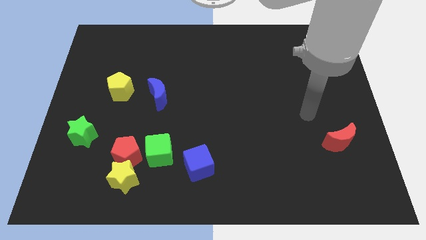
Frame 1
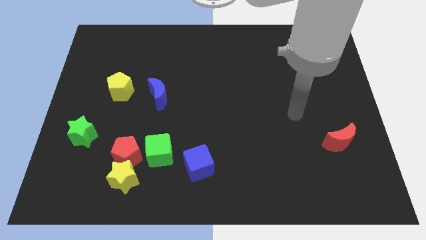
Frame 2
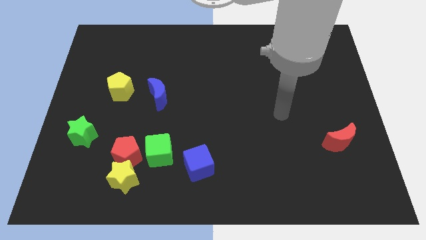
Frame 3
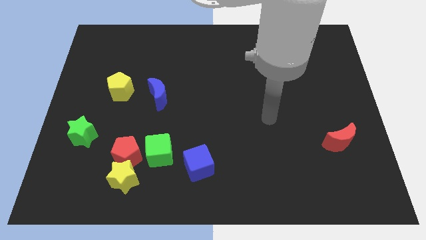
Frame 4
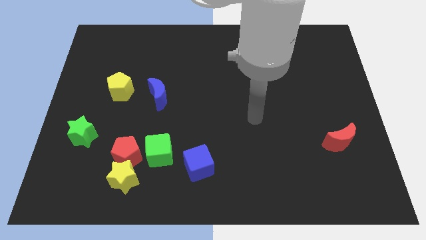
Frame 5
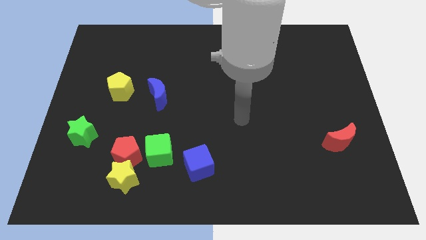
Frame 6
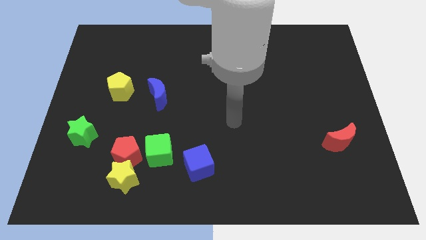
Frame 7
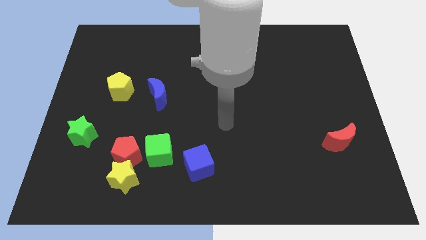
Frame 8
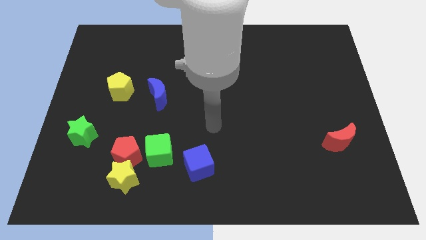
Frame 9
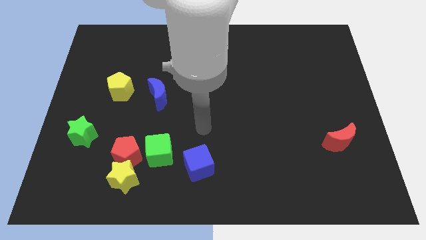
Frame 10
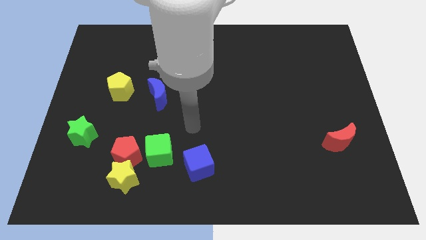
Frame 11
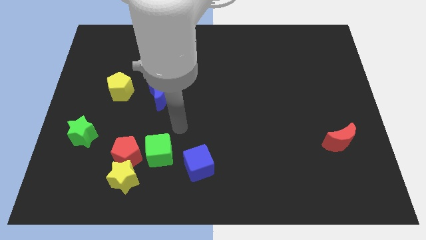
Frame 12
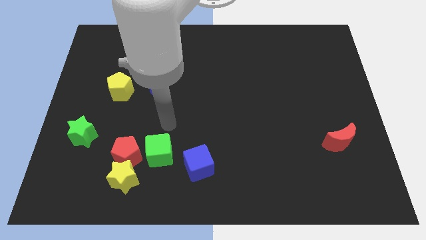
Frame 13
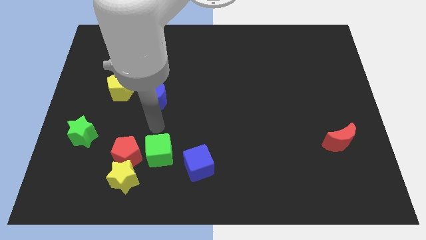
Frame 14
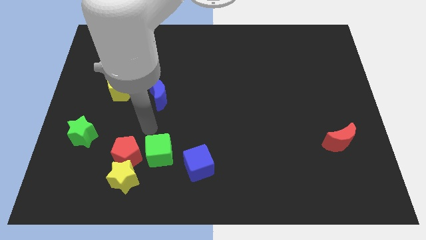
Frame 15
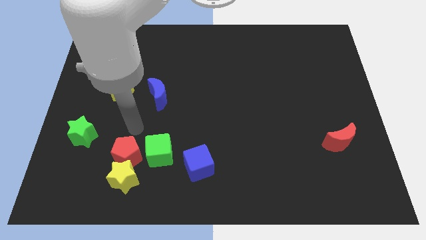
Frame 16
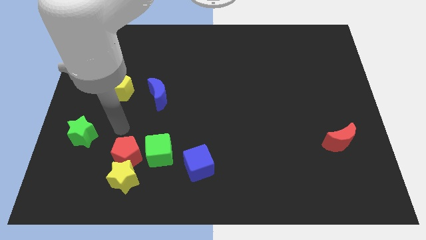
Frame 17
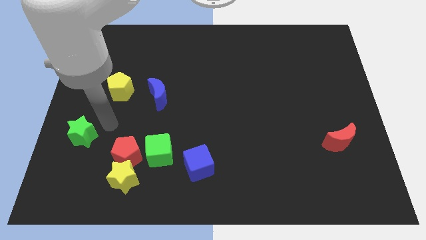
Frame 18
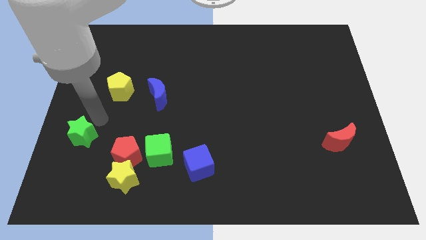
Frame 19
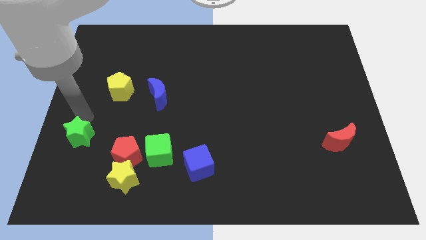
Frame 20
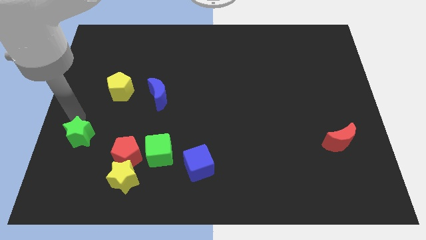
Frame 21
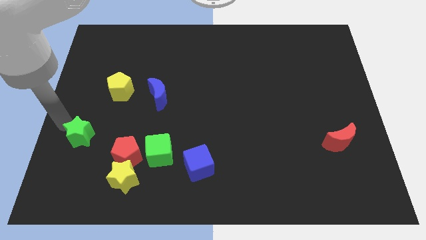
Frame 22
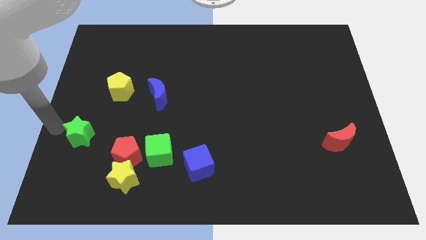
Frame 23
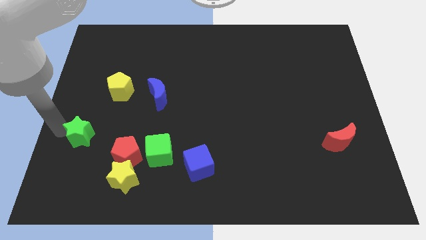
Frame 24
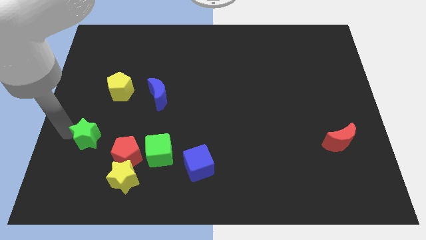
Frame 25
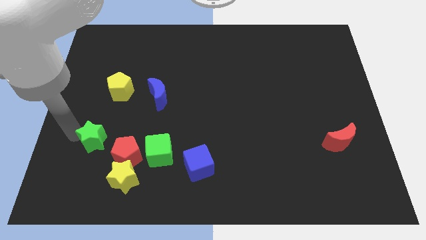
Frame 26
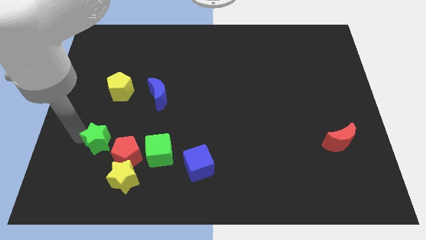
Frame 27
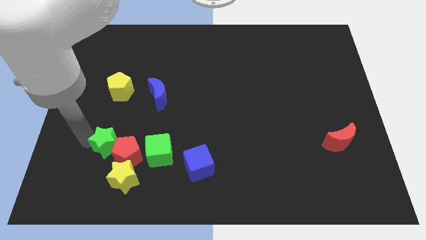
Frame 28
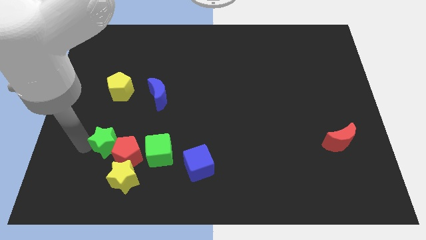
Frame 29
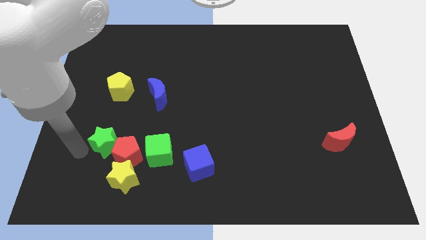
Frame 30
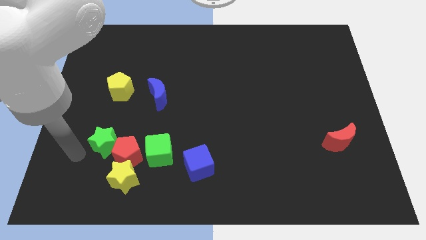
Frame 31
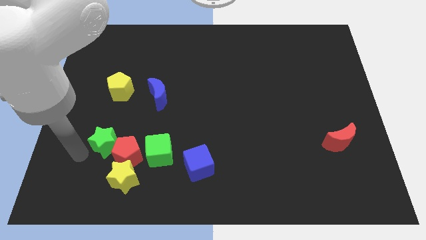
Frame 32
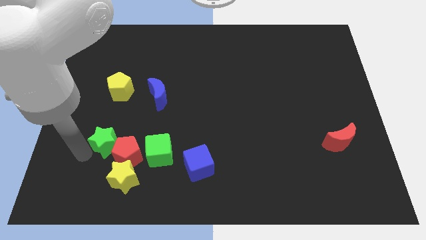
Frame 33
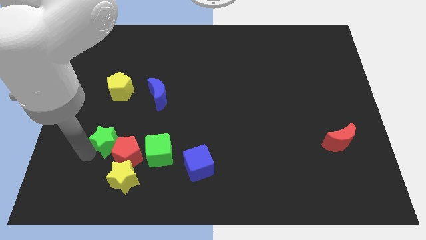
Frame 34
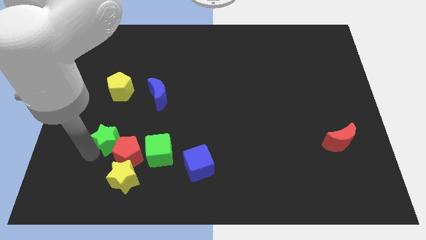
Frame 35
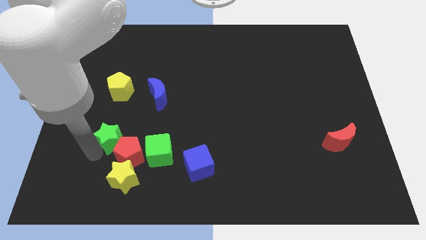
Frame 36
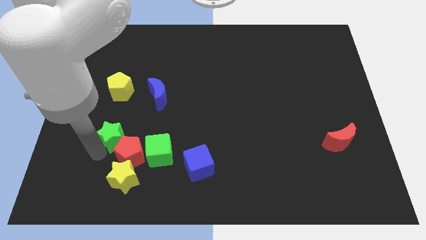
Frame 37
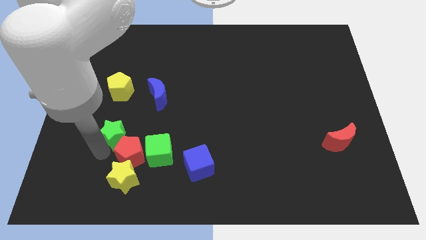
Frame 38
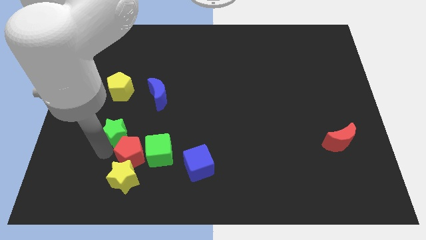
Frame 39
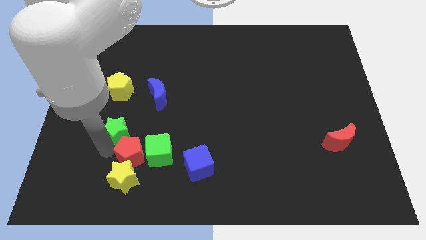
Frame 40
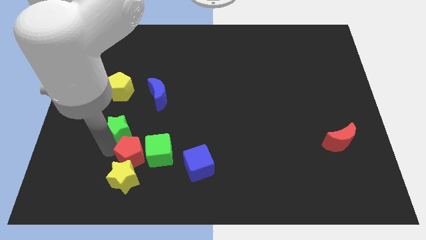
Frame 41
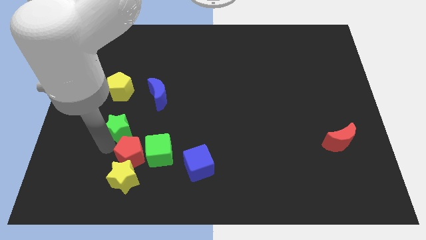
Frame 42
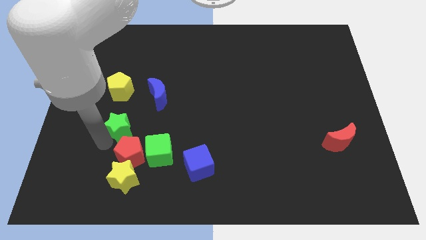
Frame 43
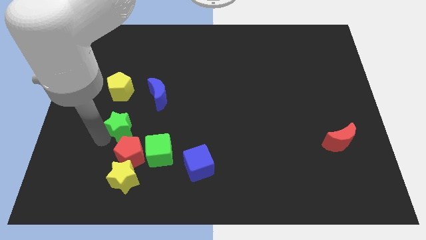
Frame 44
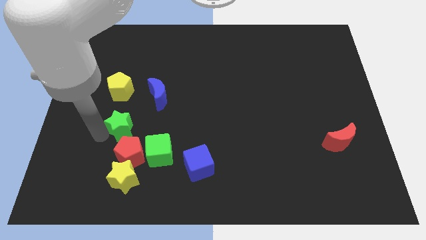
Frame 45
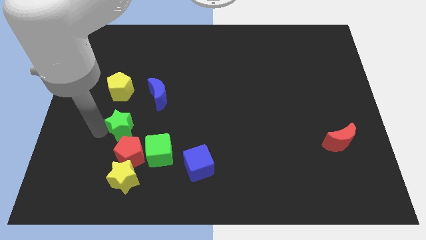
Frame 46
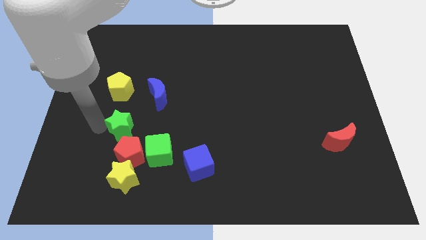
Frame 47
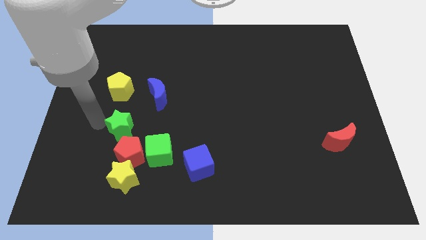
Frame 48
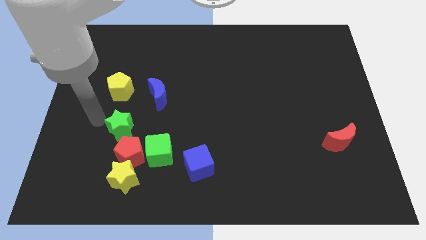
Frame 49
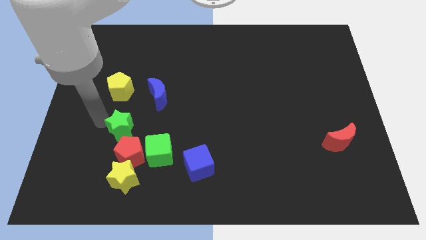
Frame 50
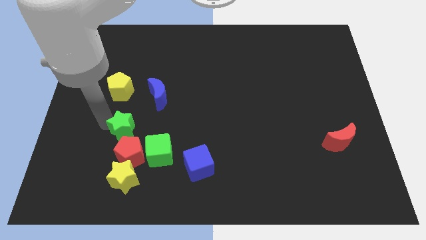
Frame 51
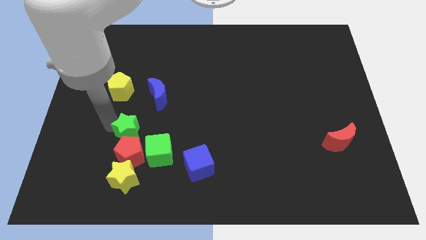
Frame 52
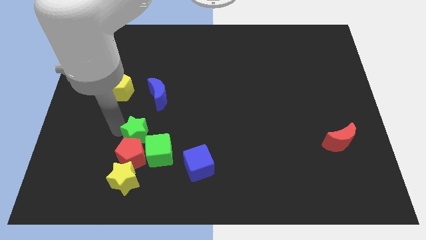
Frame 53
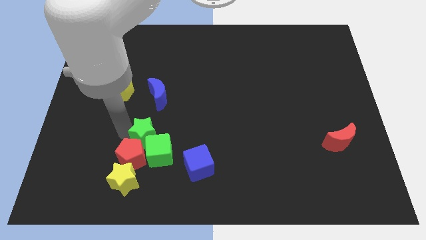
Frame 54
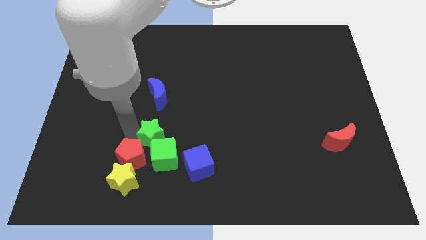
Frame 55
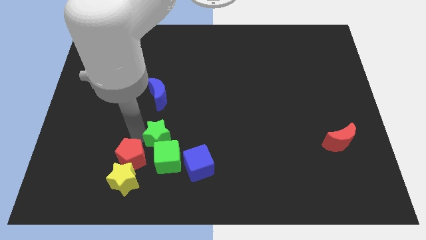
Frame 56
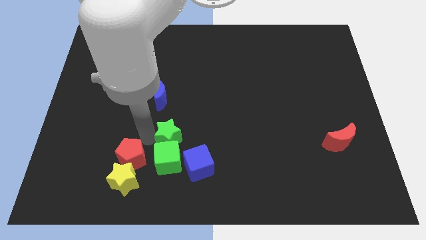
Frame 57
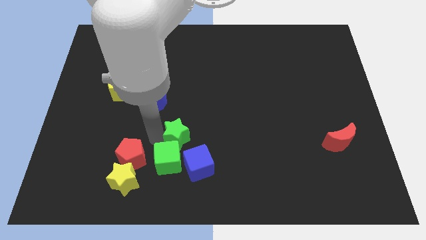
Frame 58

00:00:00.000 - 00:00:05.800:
move the green star right

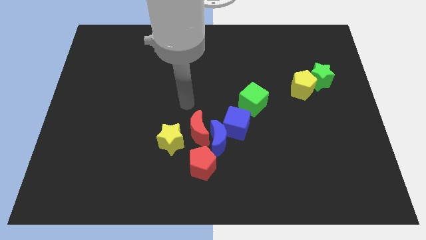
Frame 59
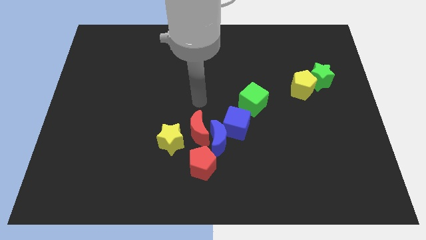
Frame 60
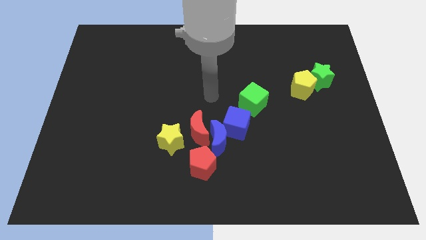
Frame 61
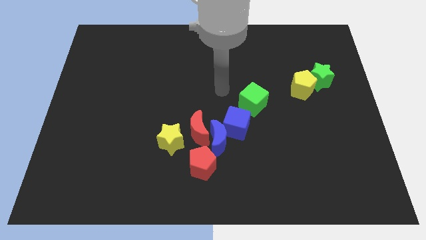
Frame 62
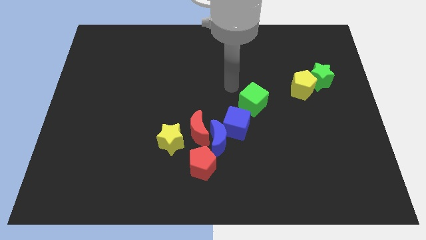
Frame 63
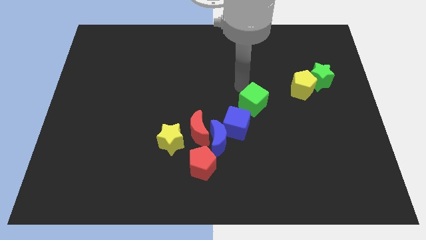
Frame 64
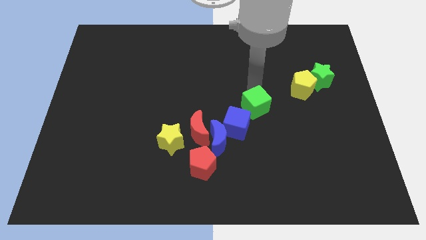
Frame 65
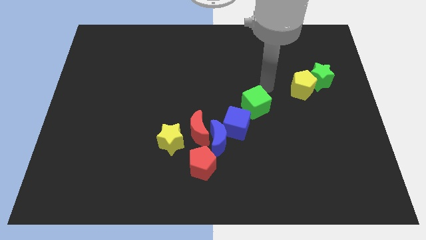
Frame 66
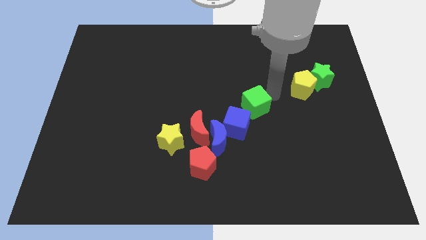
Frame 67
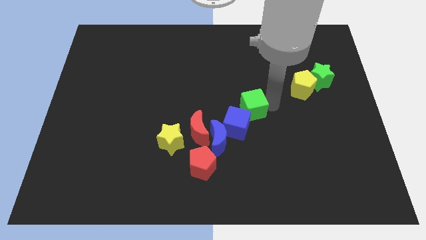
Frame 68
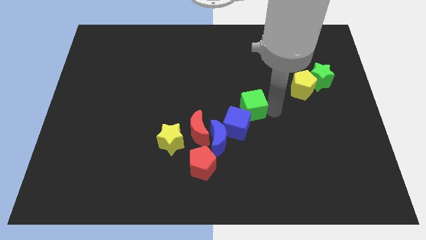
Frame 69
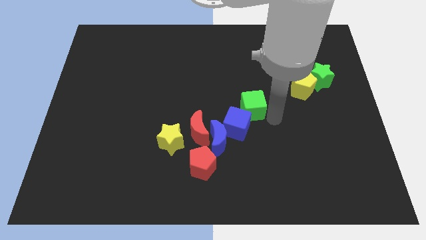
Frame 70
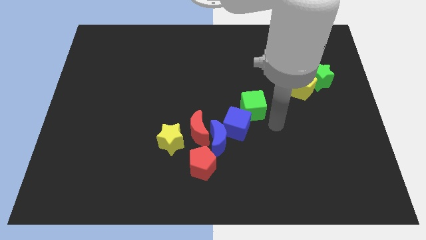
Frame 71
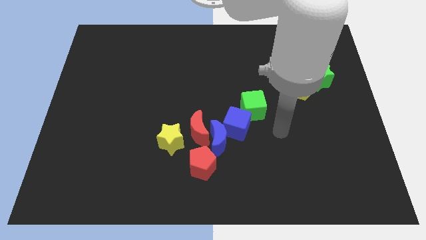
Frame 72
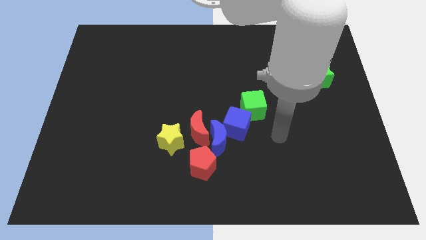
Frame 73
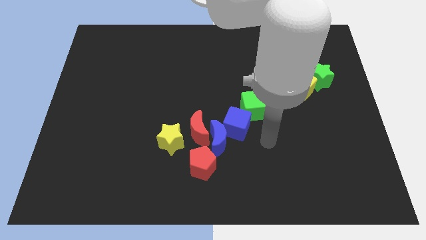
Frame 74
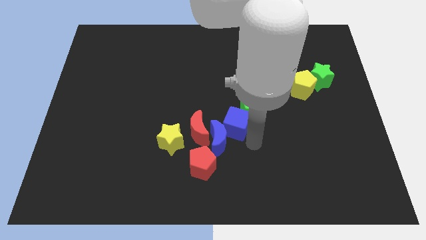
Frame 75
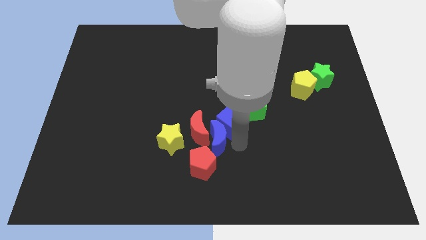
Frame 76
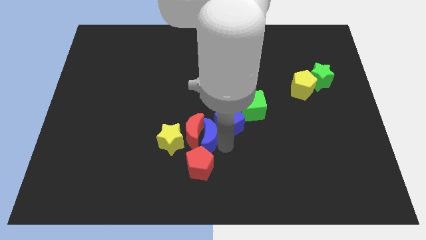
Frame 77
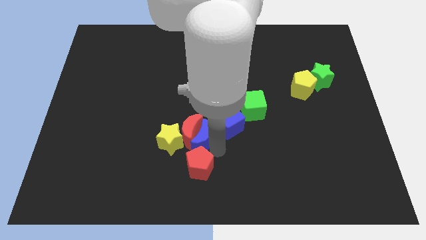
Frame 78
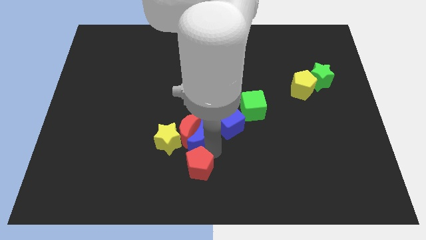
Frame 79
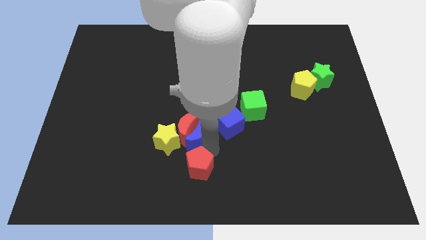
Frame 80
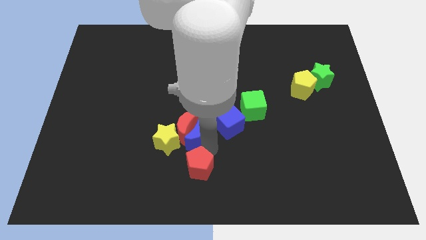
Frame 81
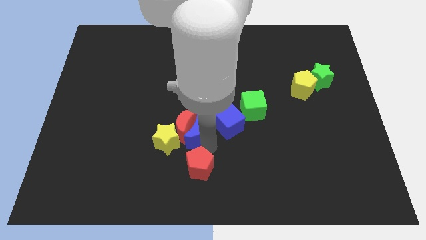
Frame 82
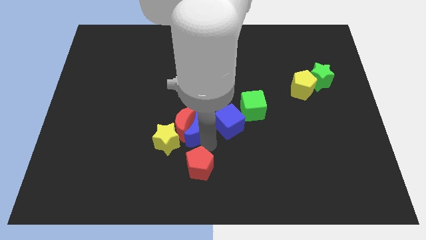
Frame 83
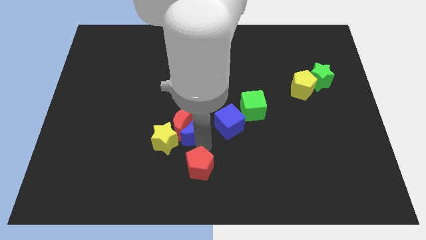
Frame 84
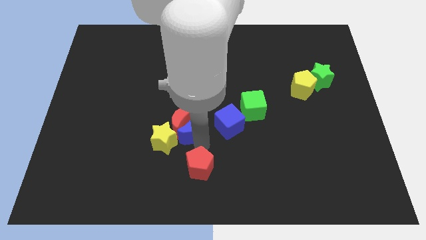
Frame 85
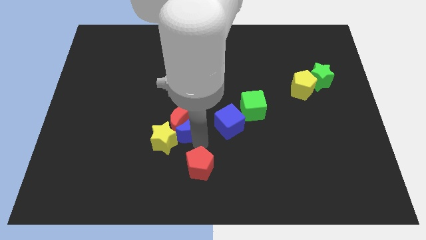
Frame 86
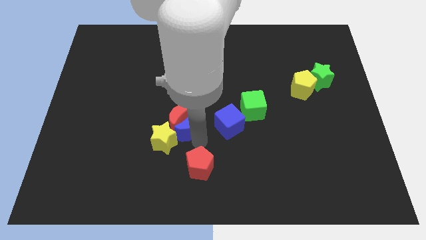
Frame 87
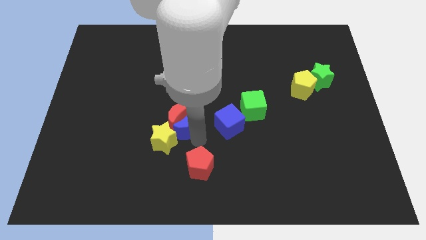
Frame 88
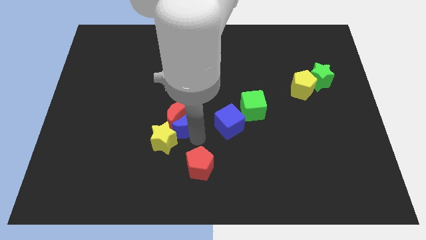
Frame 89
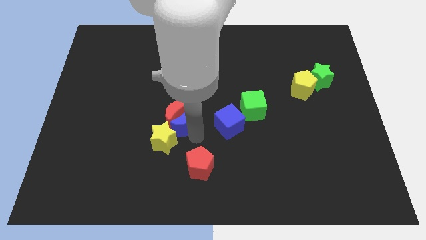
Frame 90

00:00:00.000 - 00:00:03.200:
slightly push the red moon upwards and left diagonally
